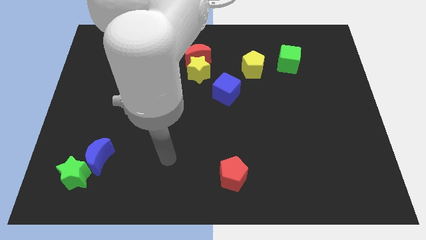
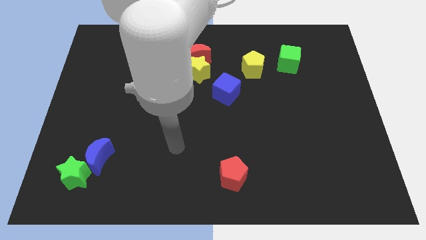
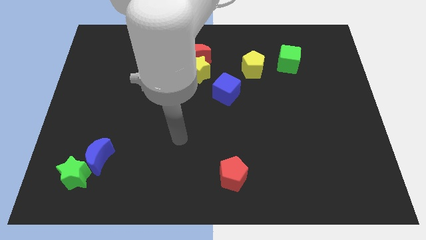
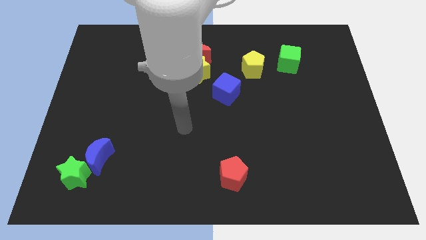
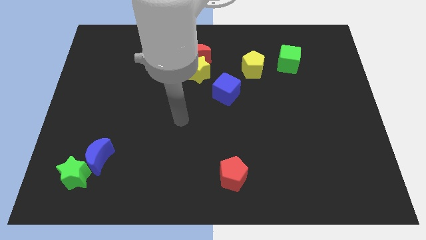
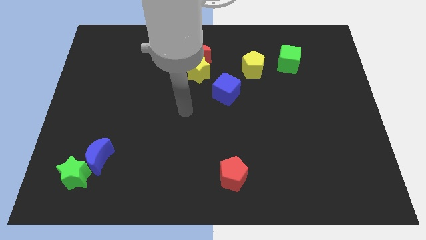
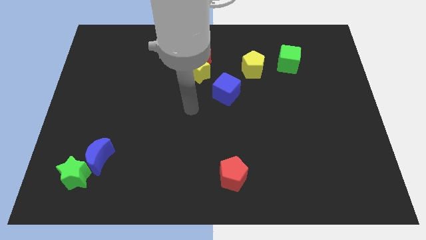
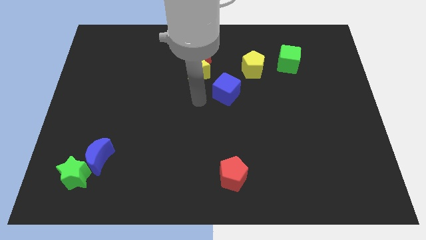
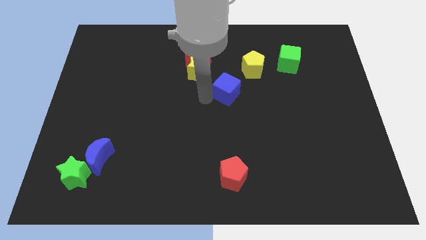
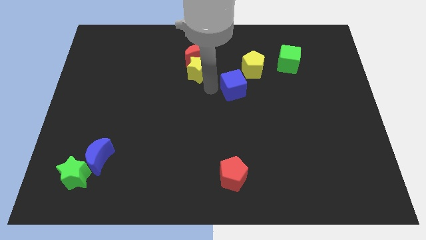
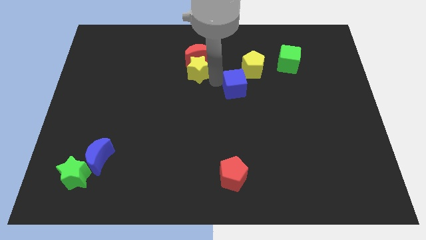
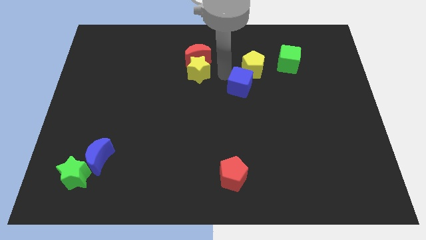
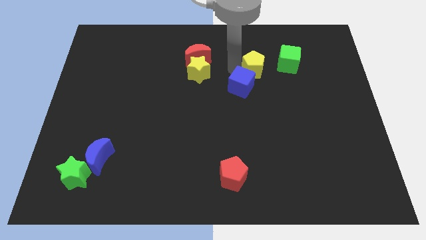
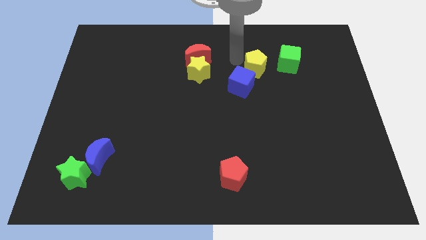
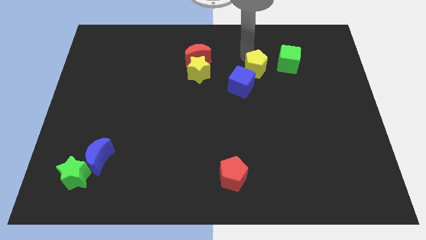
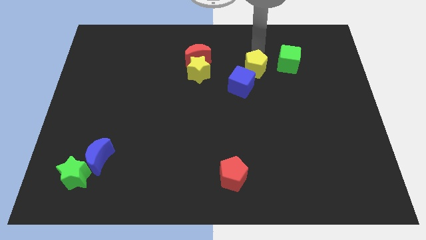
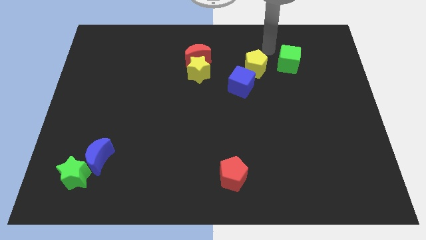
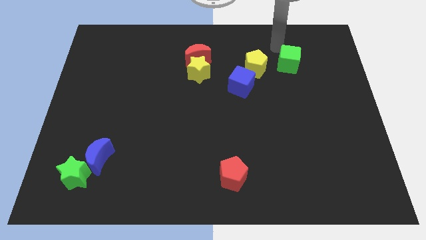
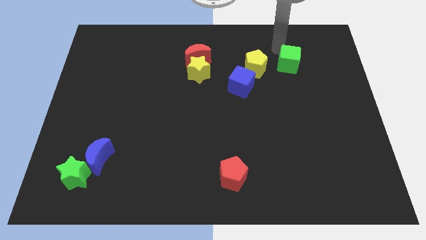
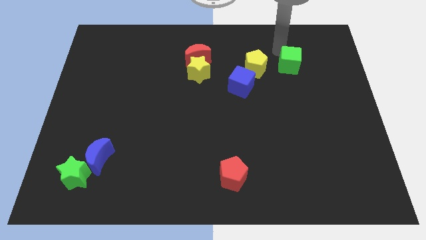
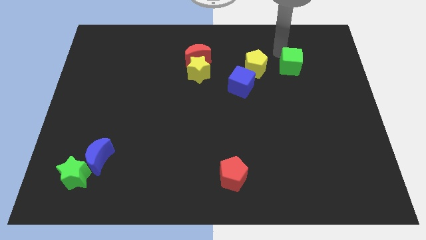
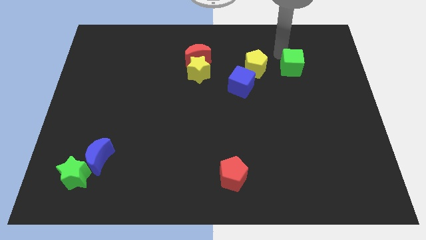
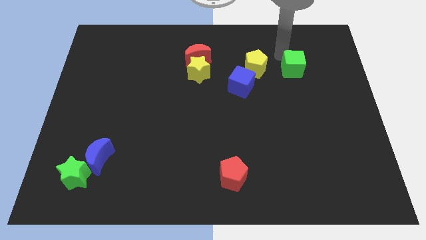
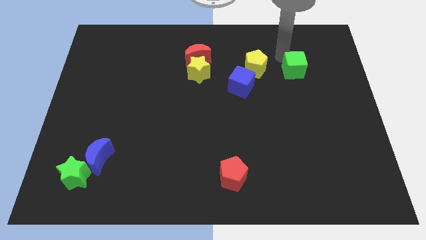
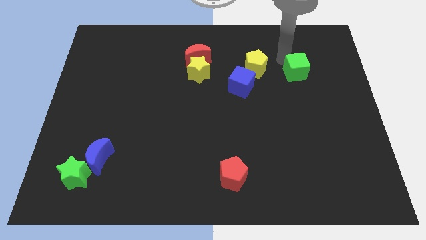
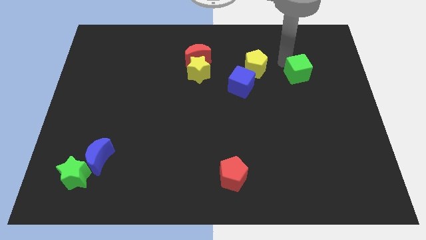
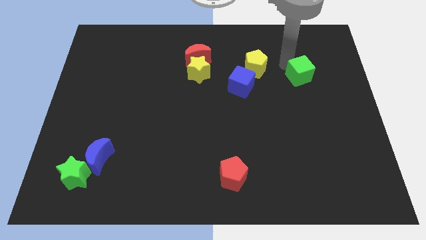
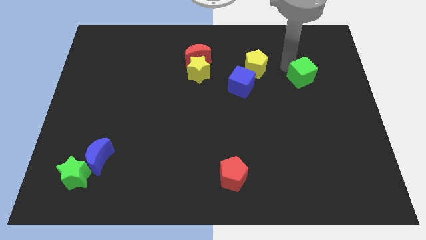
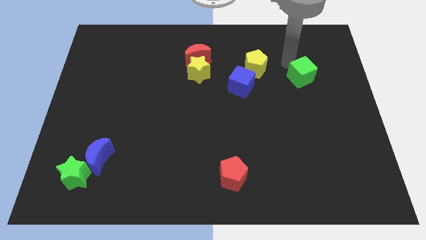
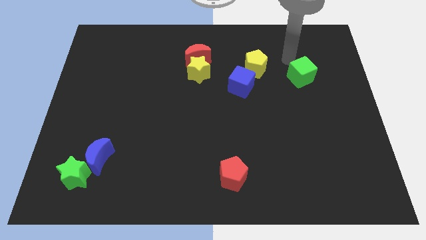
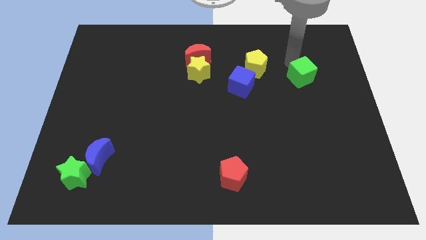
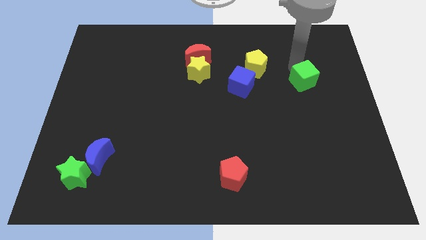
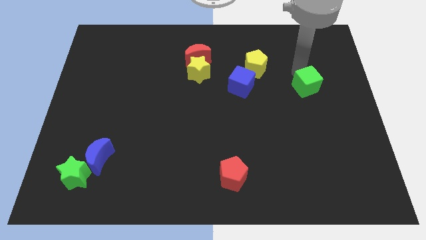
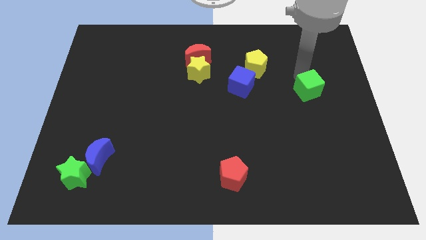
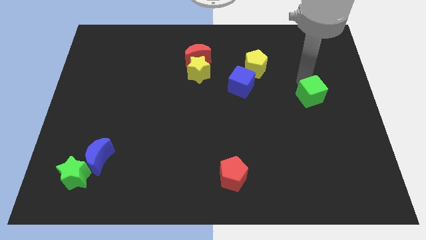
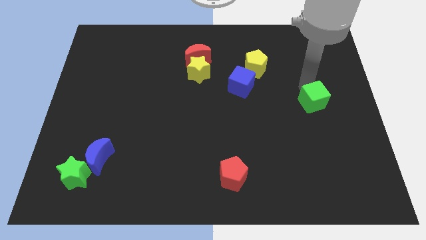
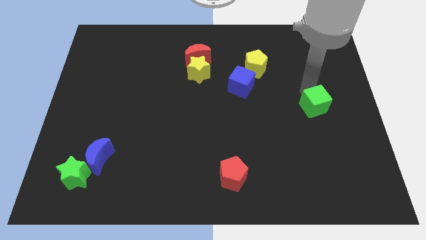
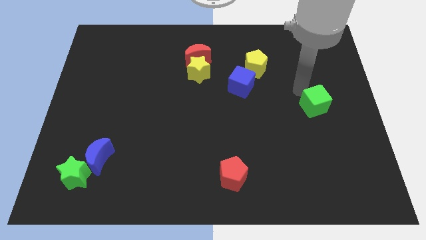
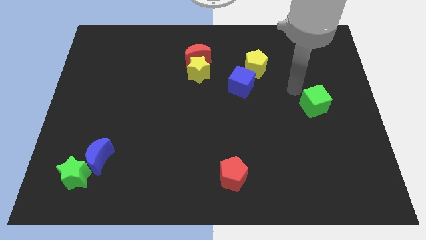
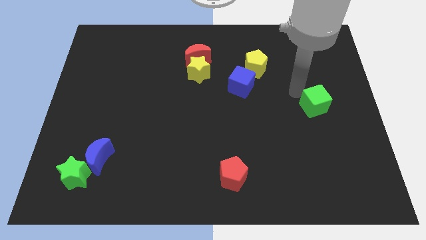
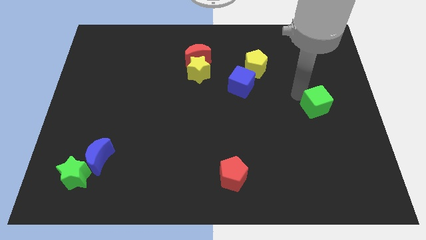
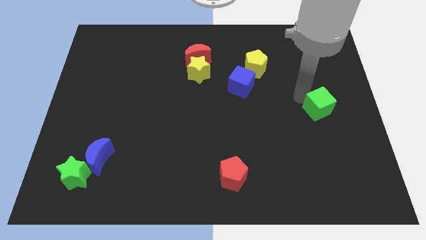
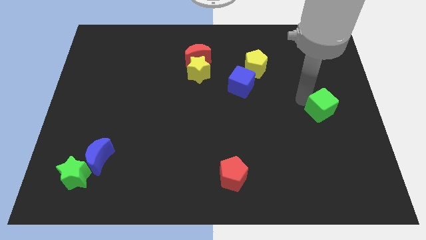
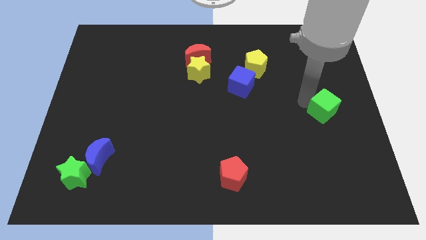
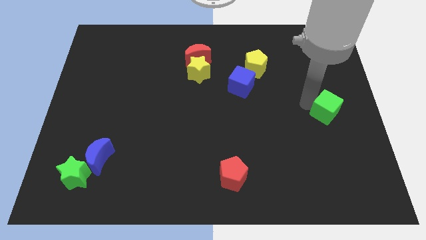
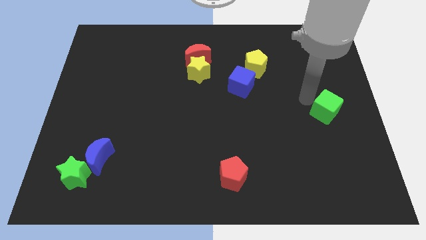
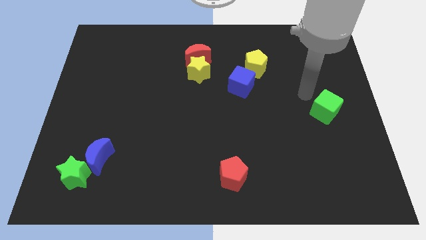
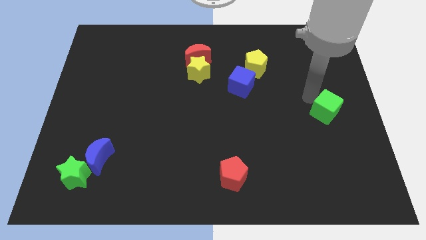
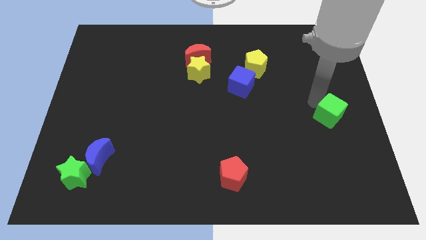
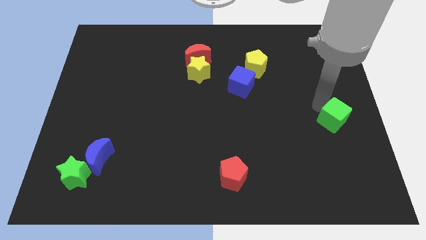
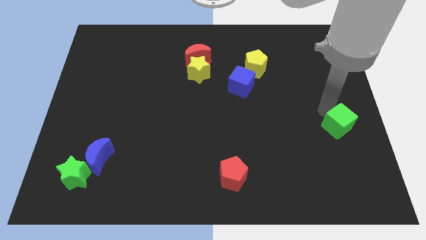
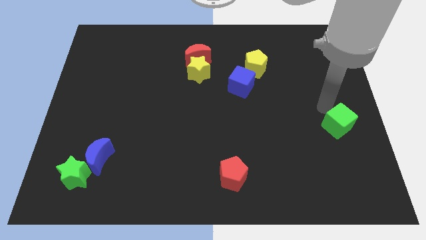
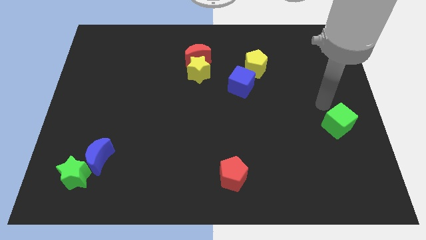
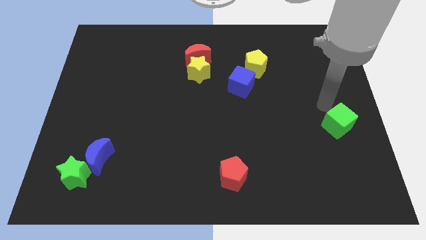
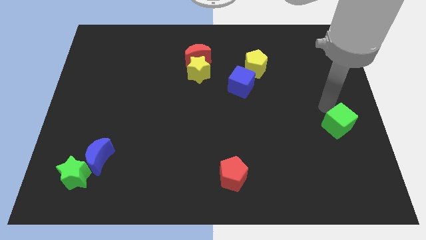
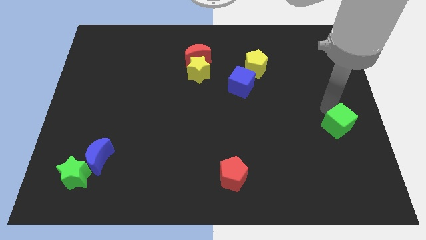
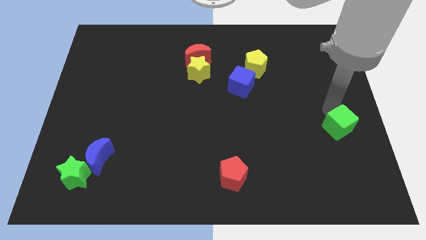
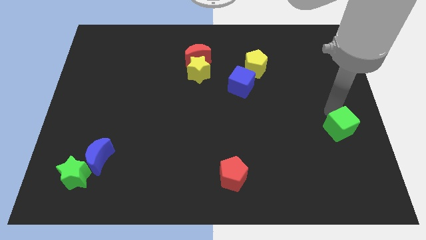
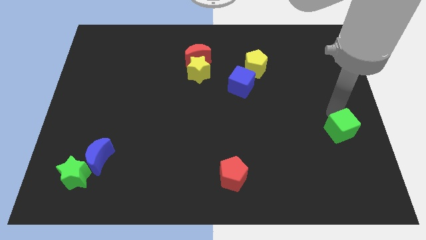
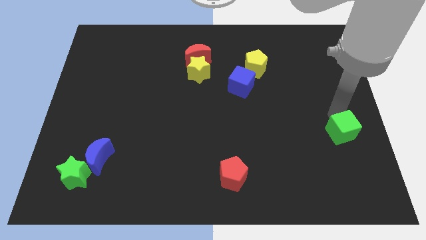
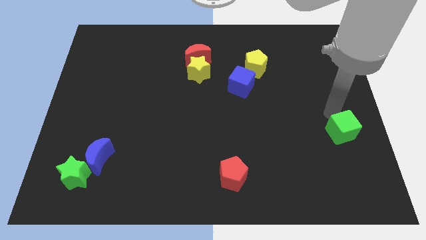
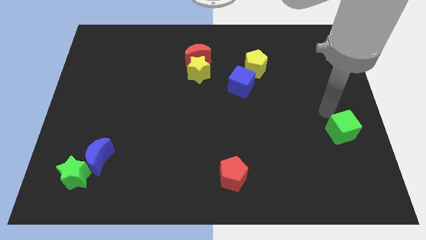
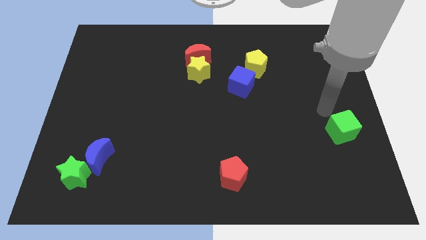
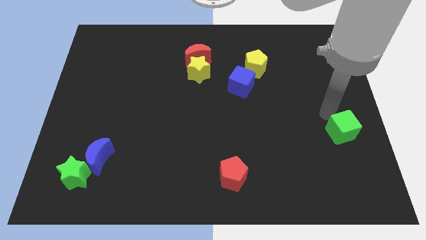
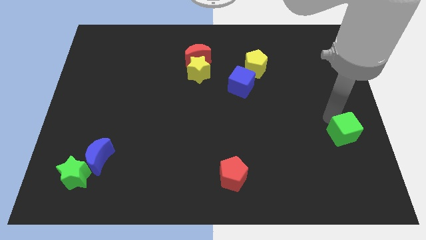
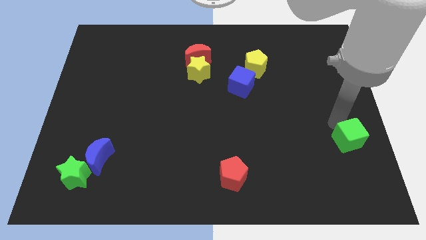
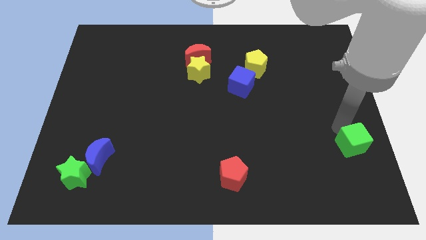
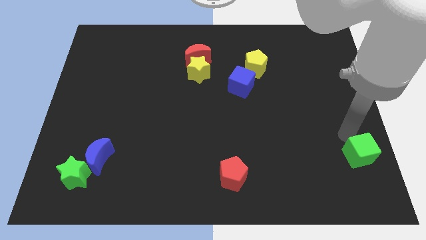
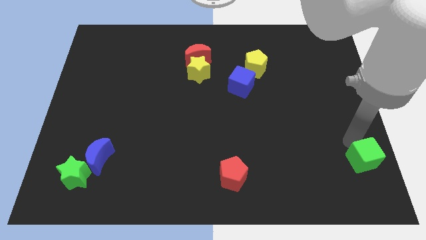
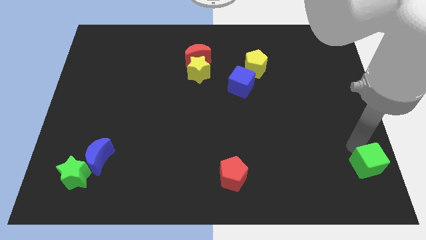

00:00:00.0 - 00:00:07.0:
push the green cube to the bottom right corner

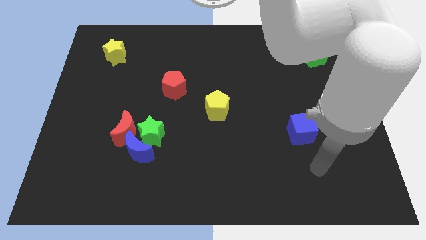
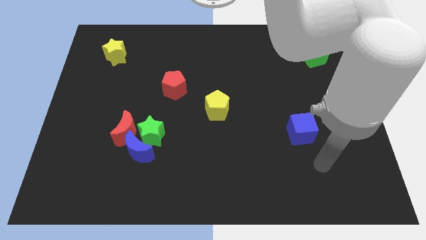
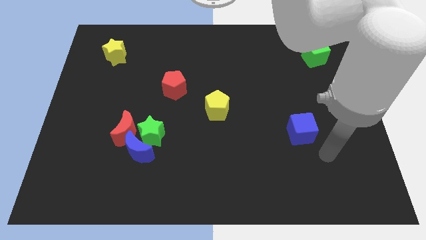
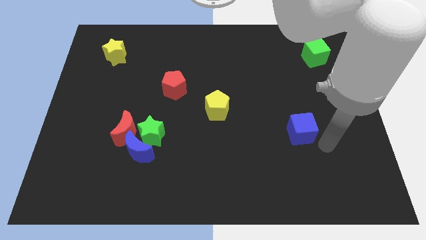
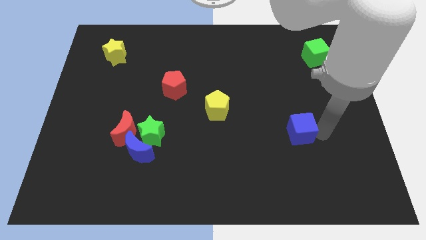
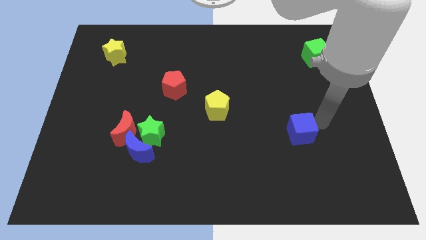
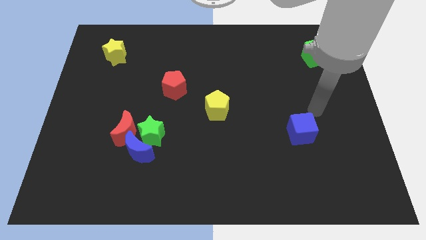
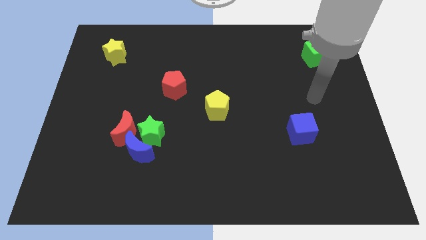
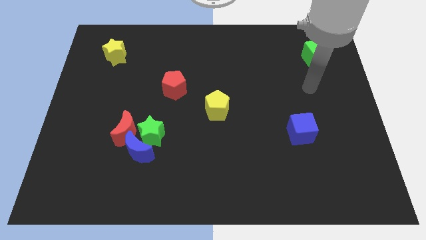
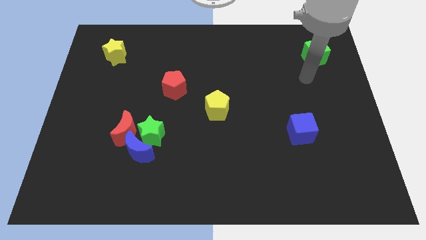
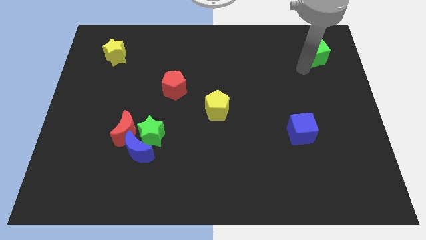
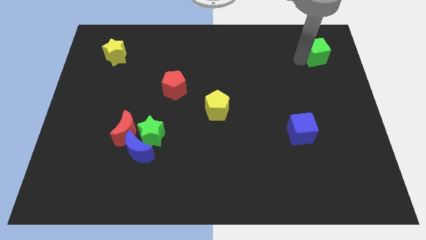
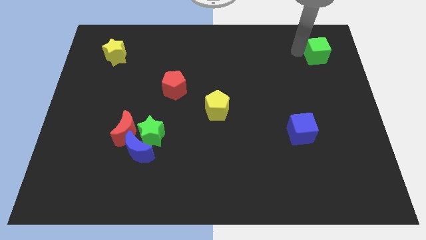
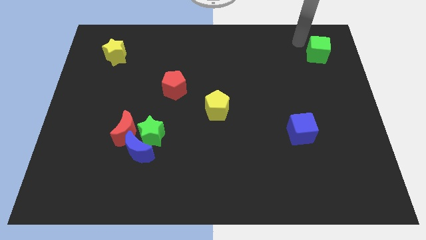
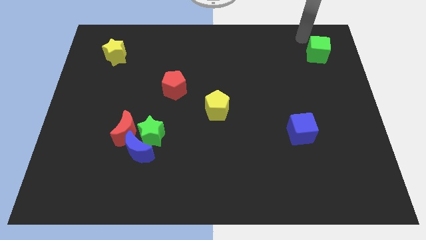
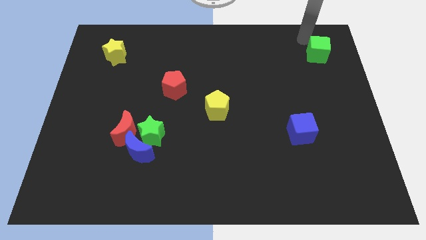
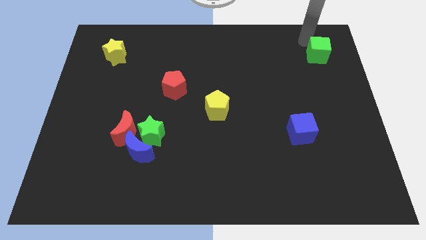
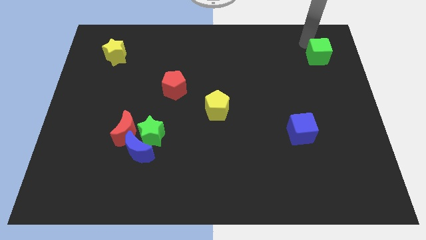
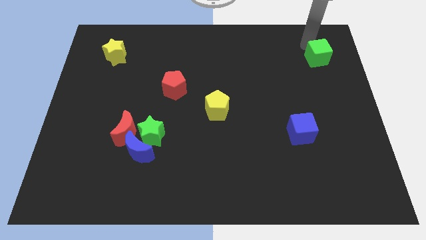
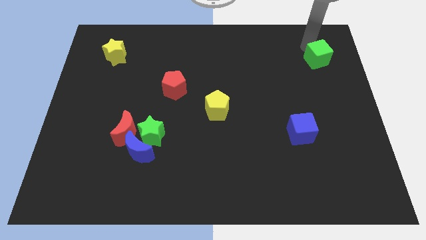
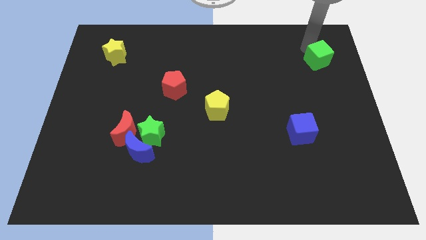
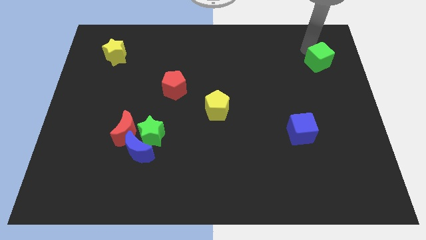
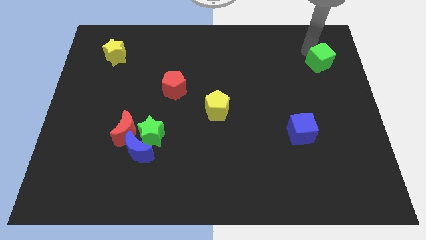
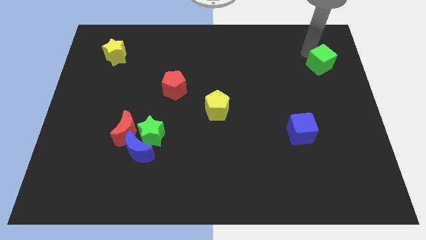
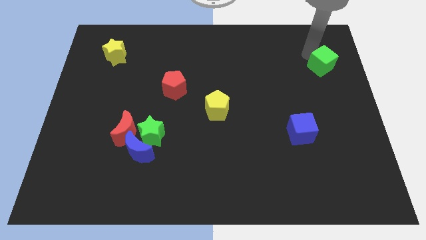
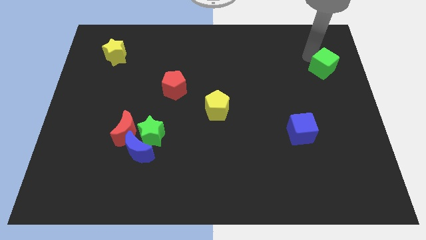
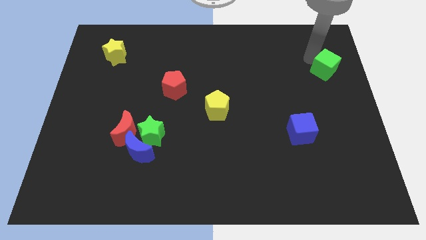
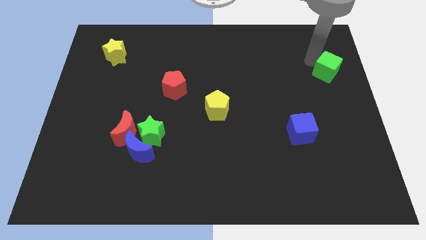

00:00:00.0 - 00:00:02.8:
slide the green cube to the center right
